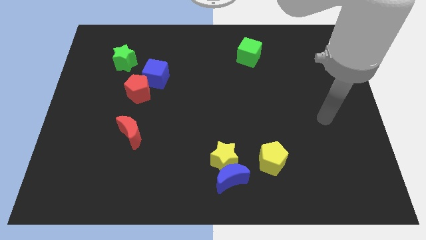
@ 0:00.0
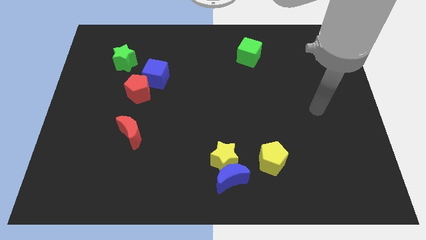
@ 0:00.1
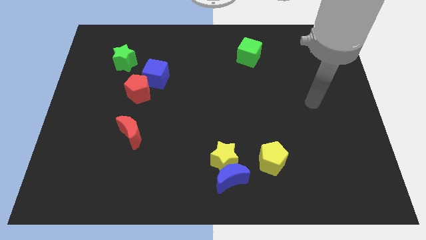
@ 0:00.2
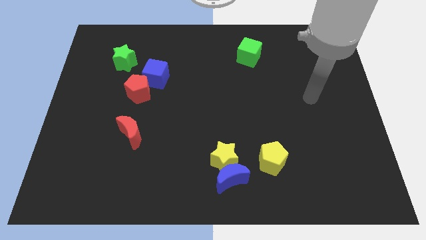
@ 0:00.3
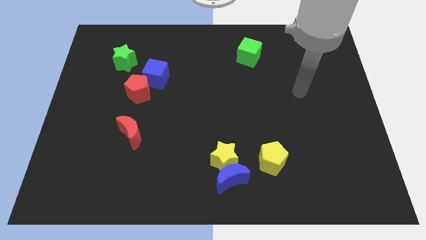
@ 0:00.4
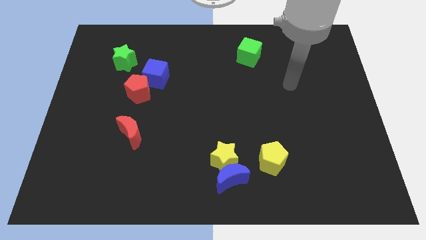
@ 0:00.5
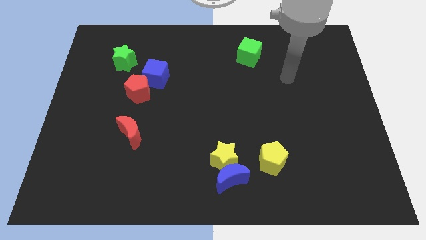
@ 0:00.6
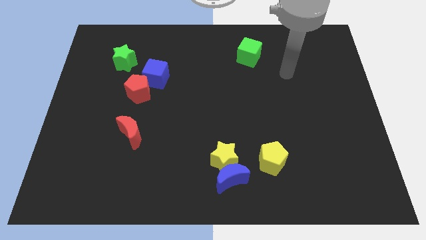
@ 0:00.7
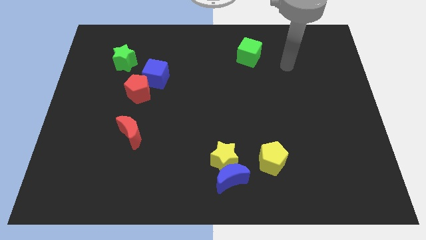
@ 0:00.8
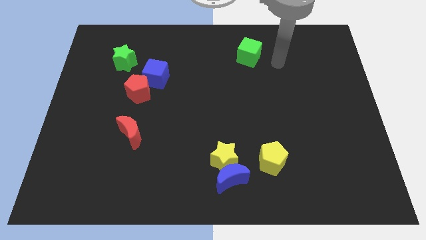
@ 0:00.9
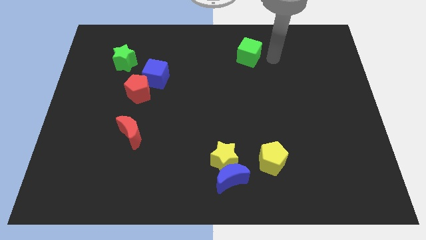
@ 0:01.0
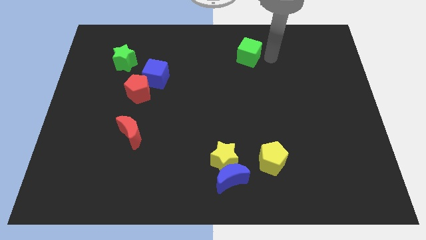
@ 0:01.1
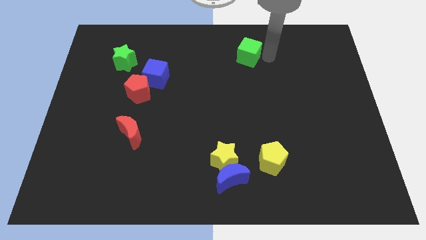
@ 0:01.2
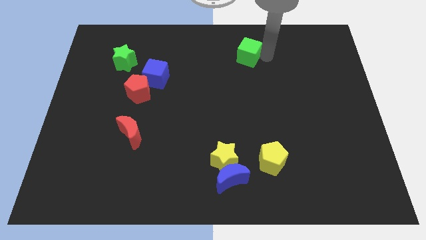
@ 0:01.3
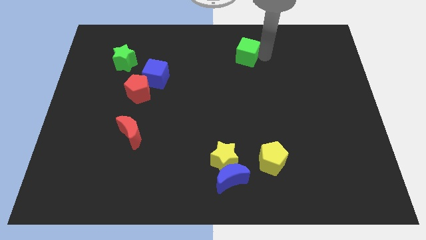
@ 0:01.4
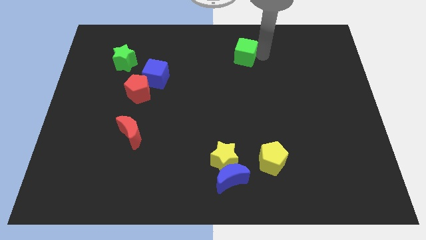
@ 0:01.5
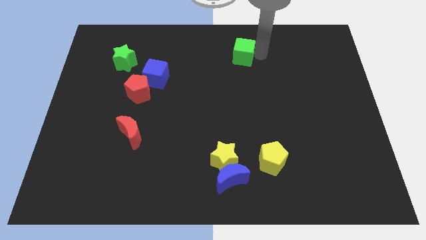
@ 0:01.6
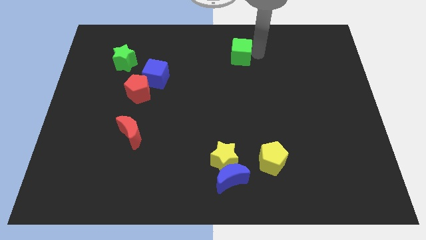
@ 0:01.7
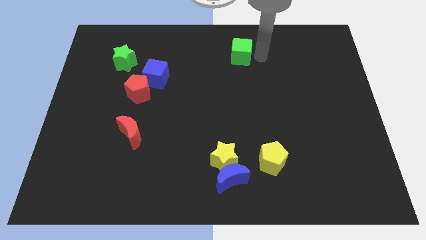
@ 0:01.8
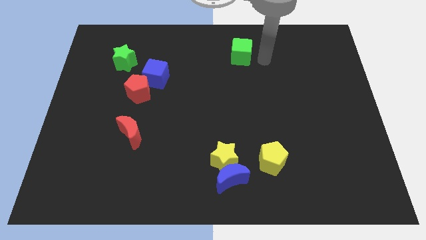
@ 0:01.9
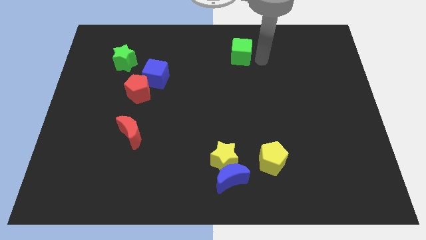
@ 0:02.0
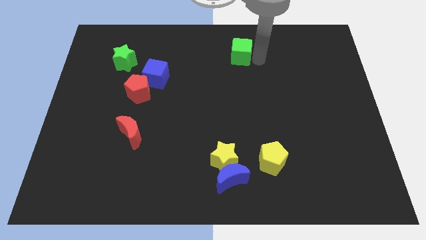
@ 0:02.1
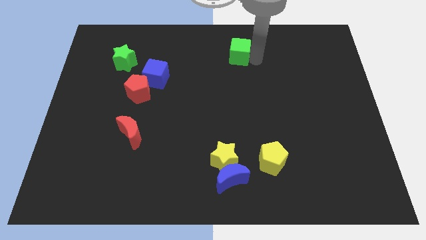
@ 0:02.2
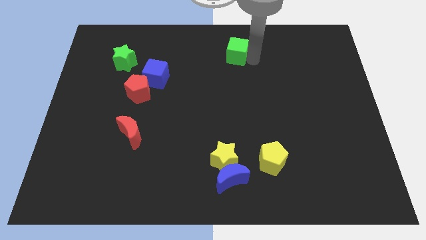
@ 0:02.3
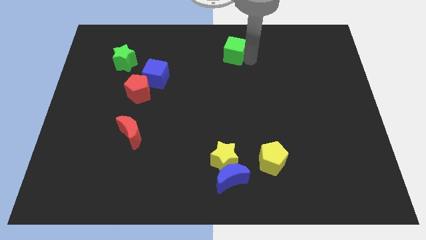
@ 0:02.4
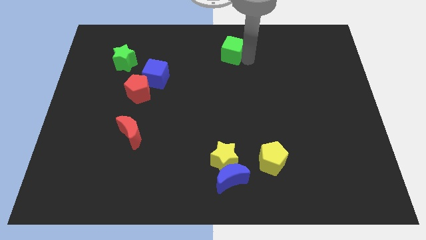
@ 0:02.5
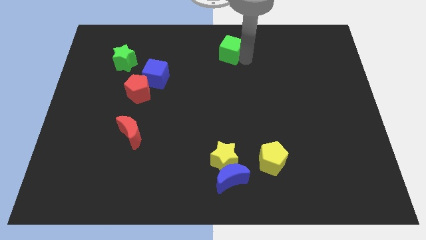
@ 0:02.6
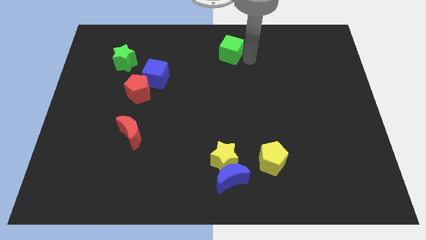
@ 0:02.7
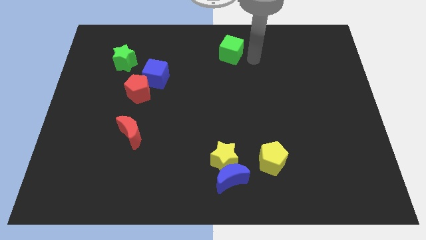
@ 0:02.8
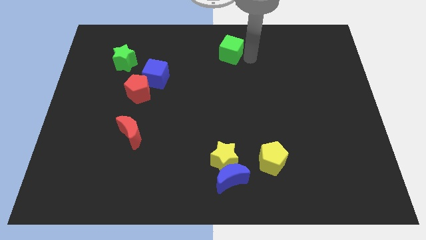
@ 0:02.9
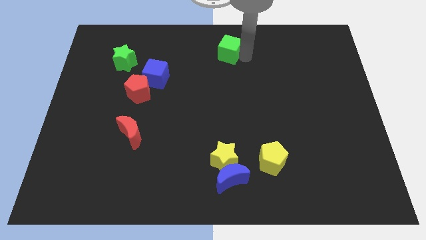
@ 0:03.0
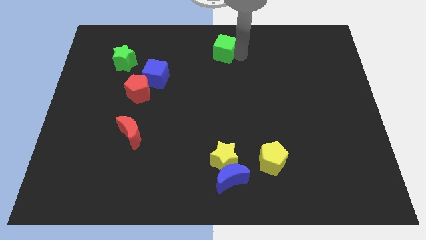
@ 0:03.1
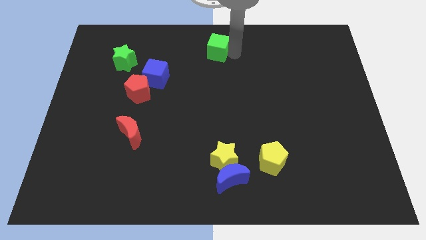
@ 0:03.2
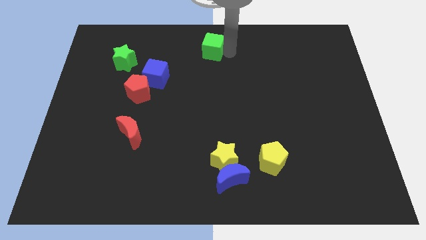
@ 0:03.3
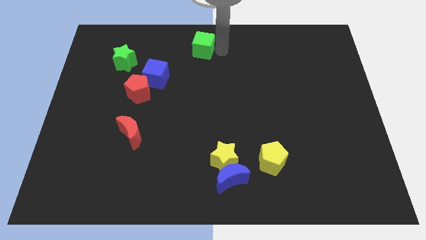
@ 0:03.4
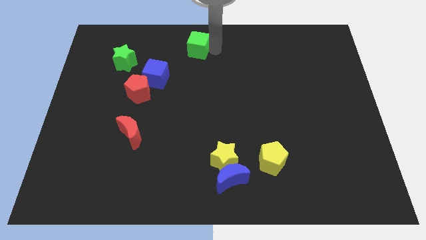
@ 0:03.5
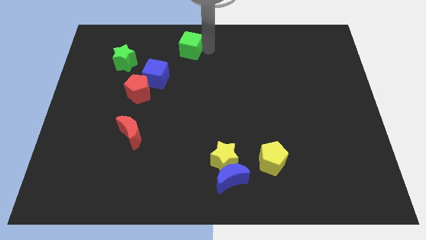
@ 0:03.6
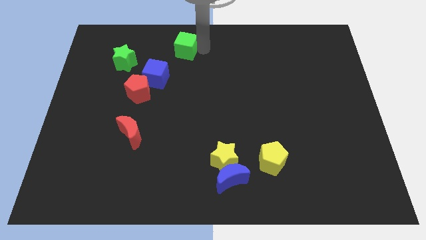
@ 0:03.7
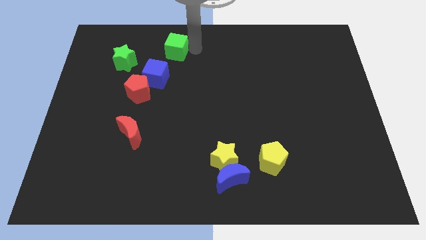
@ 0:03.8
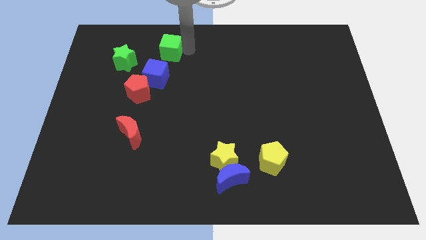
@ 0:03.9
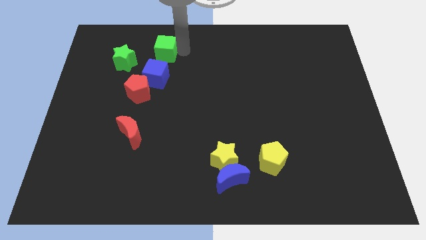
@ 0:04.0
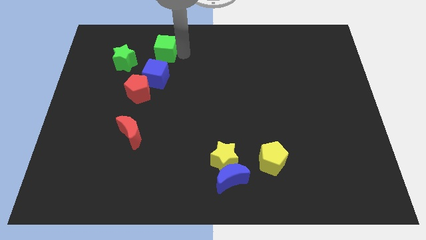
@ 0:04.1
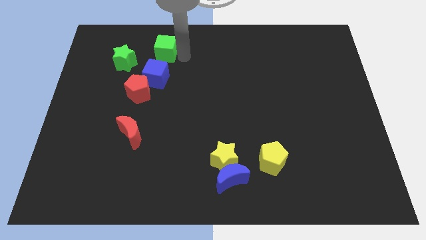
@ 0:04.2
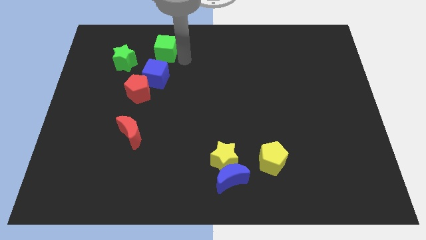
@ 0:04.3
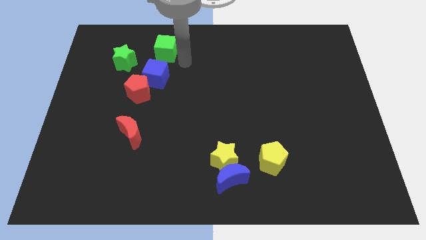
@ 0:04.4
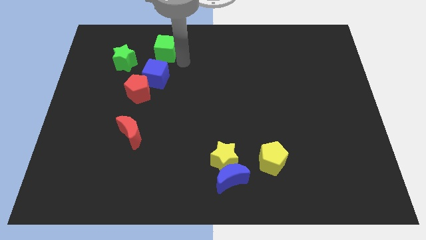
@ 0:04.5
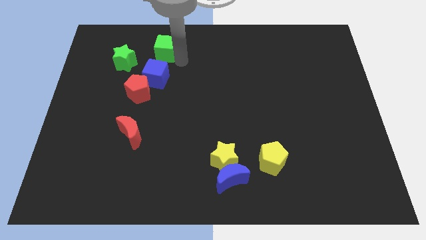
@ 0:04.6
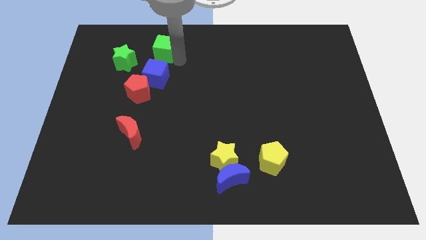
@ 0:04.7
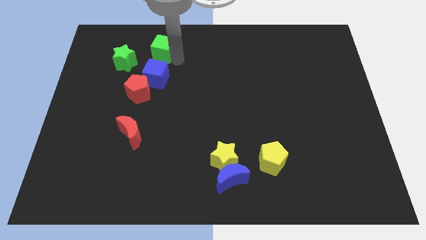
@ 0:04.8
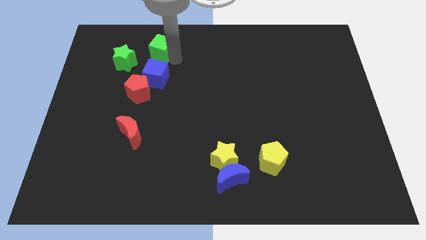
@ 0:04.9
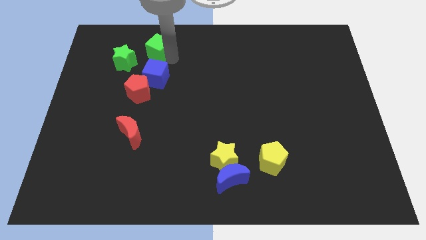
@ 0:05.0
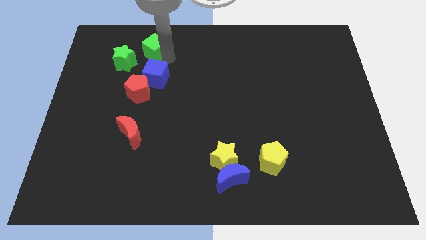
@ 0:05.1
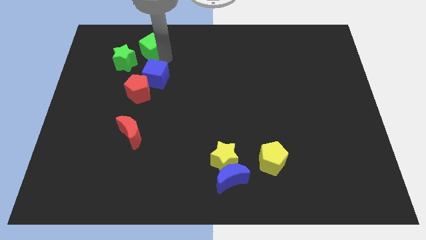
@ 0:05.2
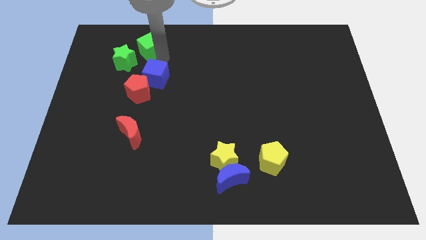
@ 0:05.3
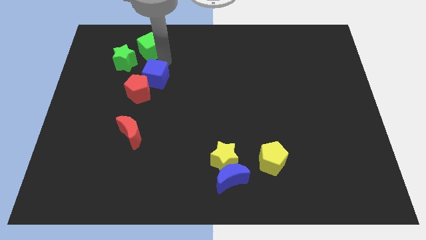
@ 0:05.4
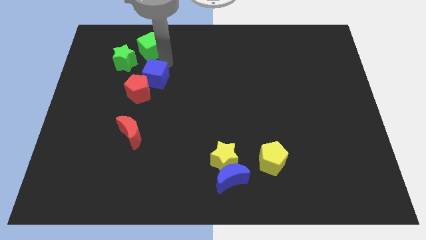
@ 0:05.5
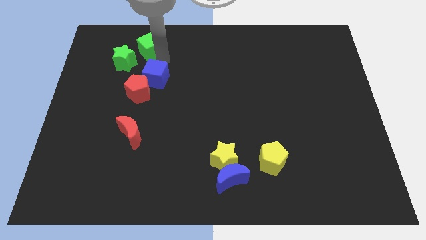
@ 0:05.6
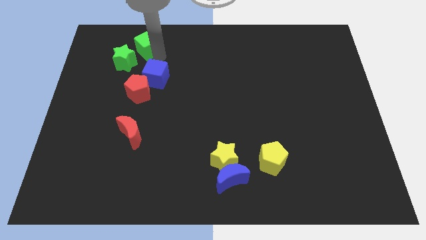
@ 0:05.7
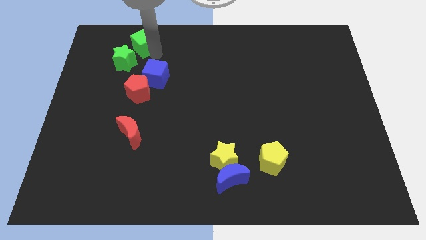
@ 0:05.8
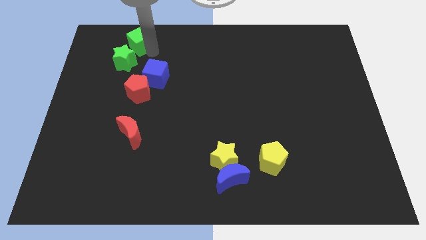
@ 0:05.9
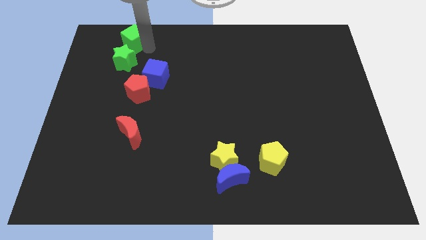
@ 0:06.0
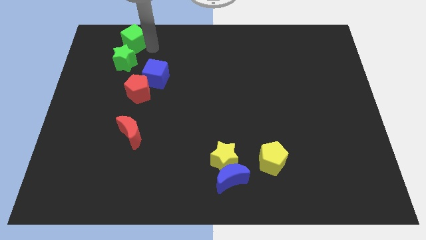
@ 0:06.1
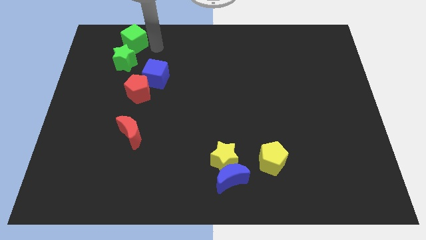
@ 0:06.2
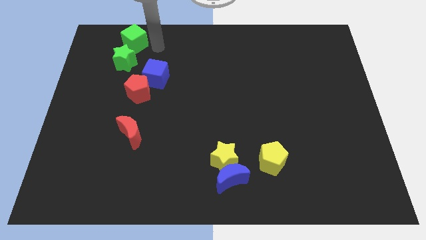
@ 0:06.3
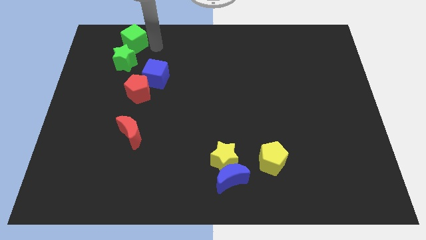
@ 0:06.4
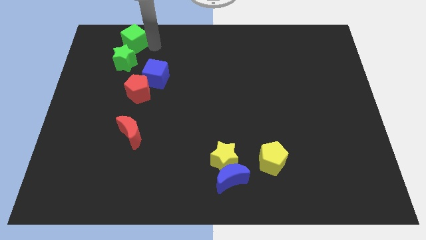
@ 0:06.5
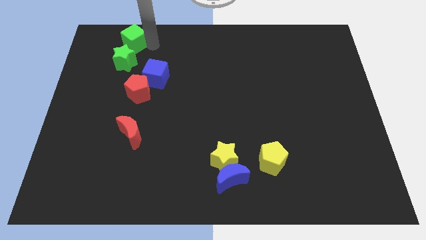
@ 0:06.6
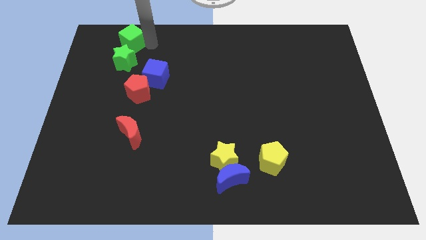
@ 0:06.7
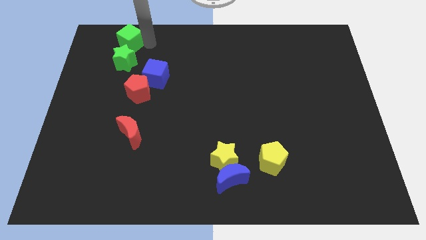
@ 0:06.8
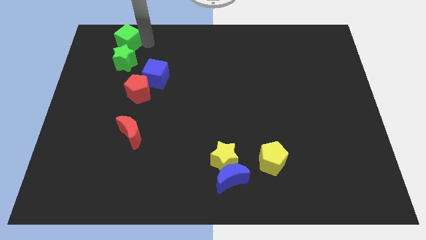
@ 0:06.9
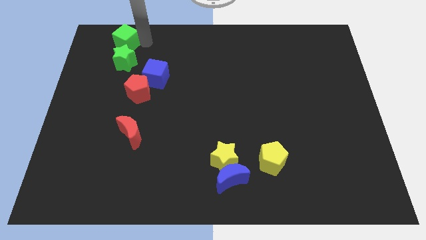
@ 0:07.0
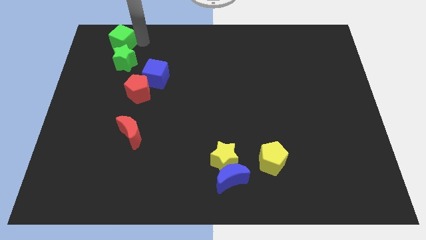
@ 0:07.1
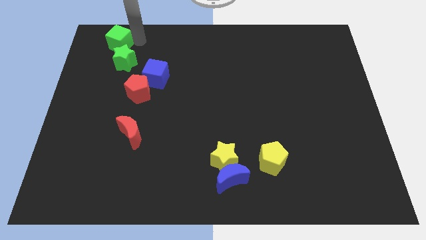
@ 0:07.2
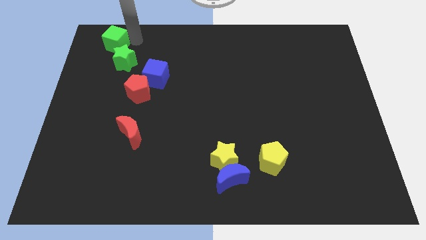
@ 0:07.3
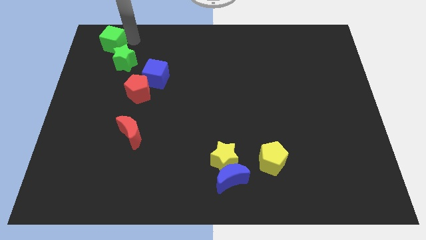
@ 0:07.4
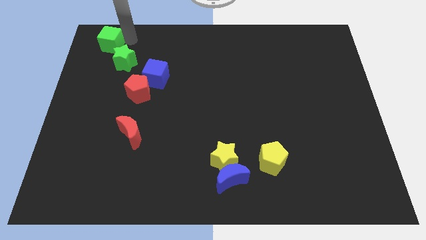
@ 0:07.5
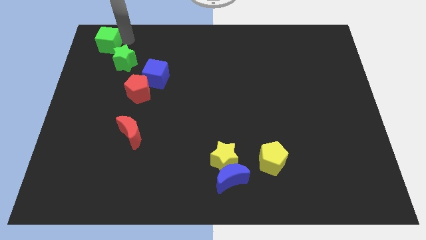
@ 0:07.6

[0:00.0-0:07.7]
put the green cube to the top left
